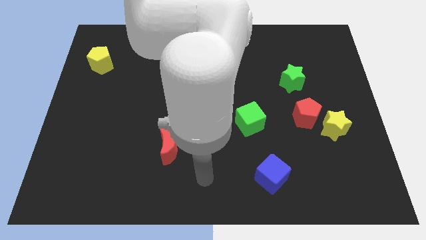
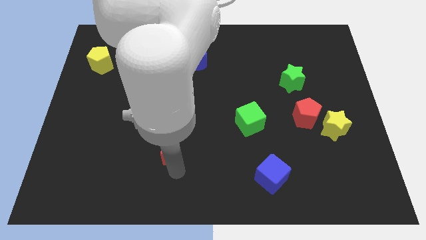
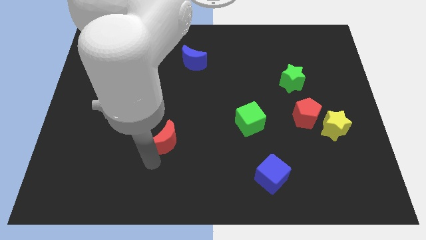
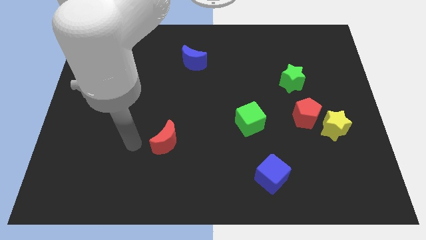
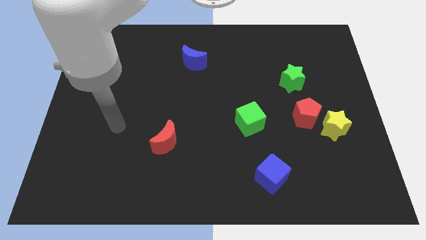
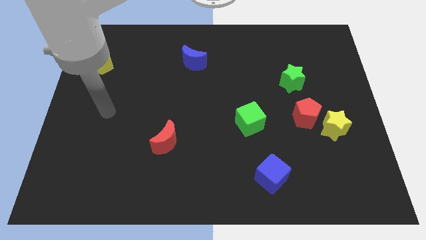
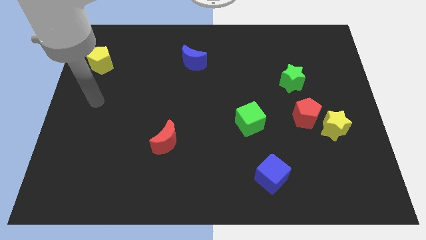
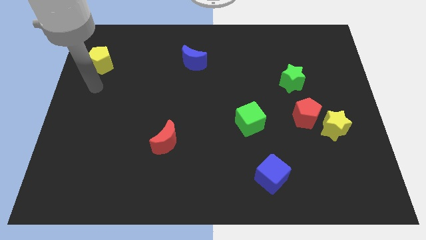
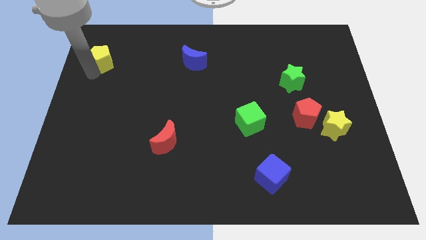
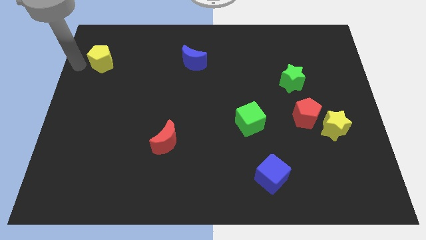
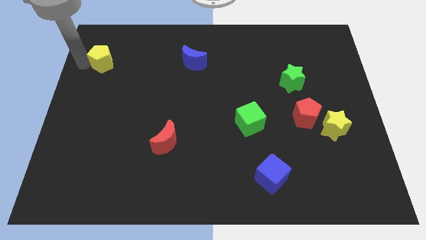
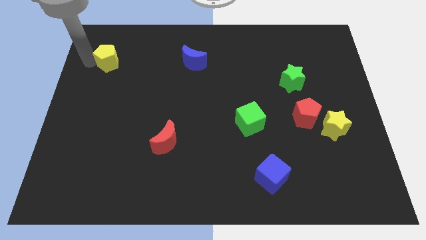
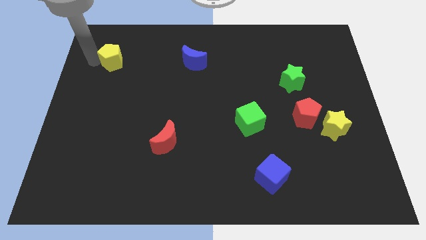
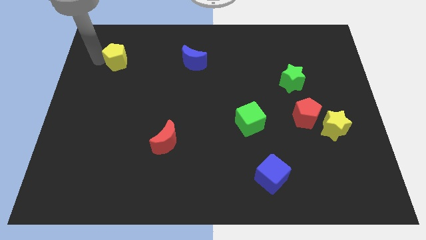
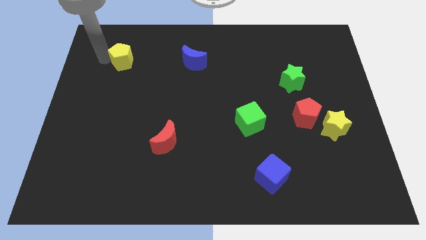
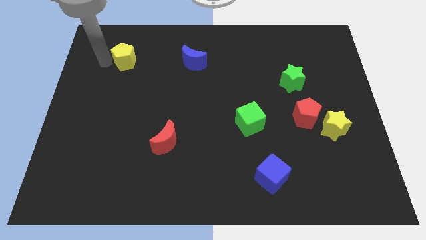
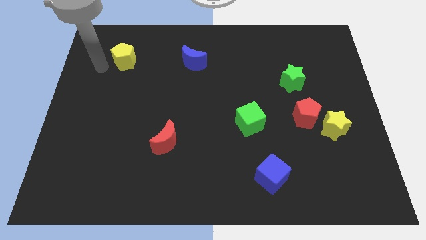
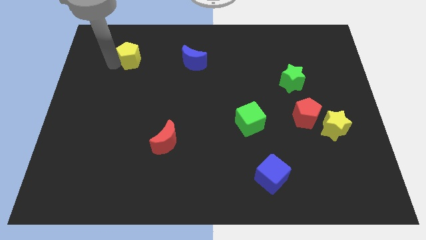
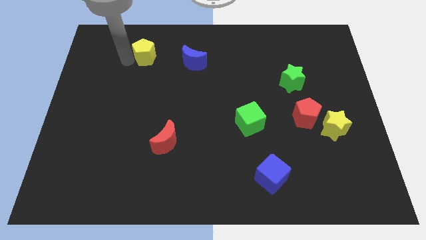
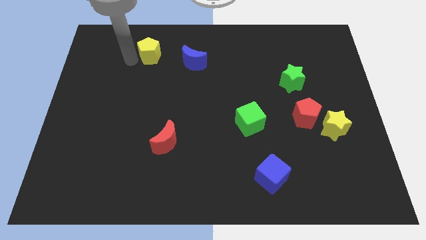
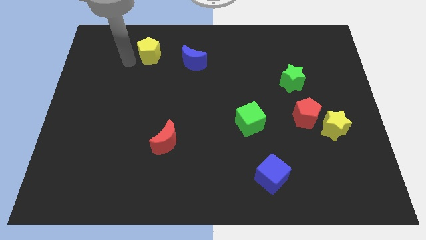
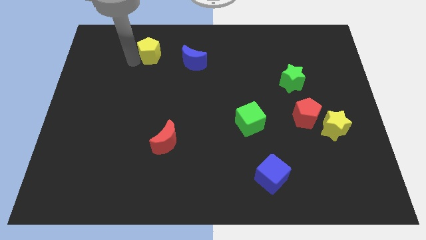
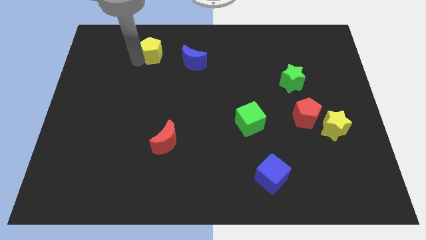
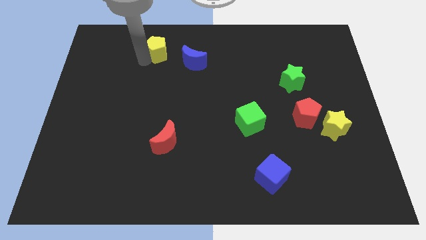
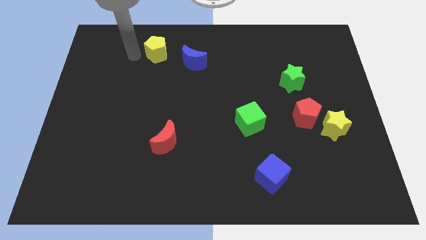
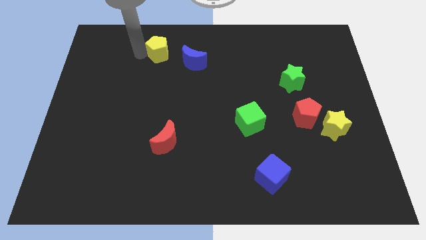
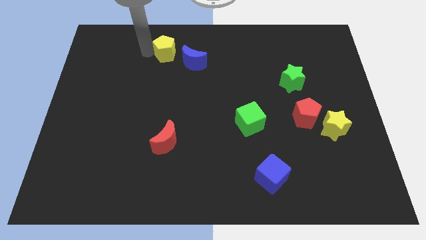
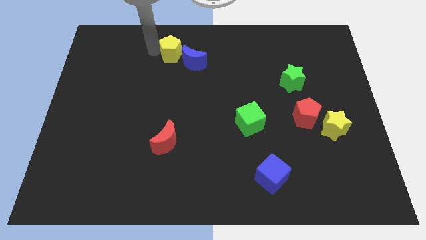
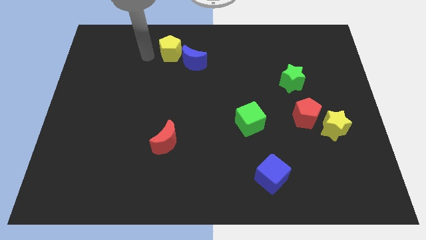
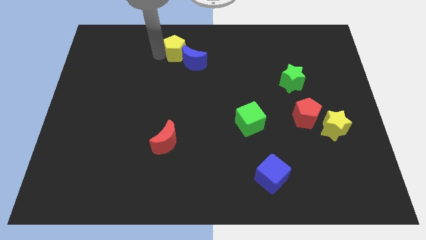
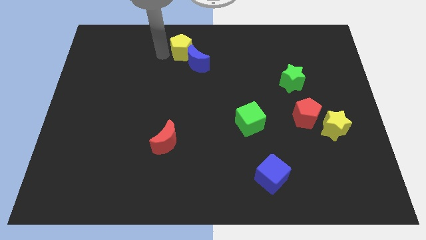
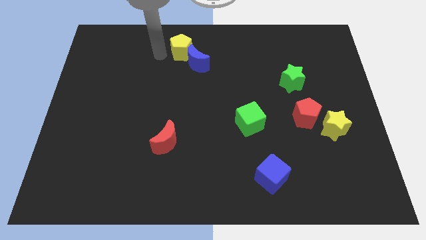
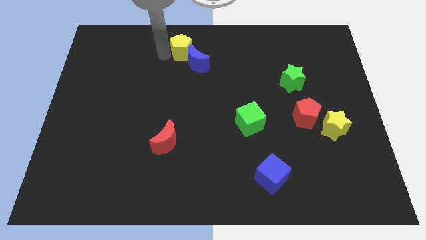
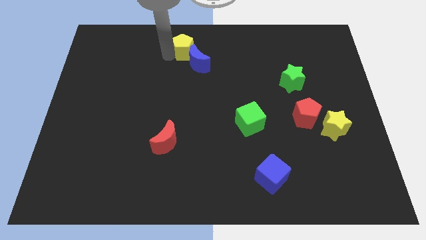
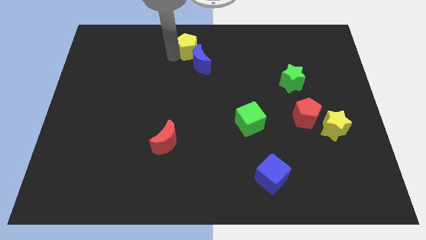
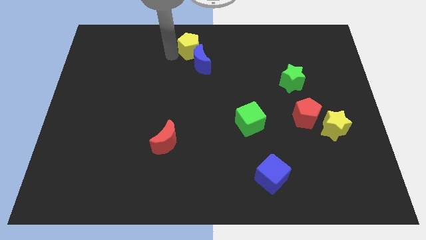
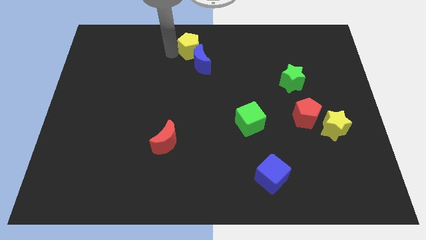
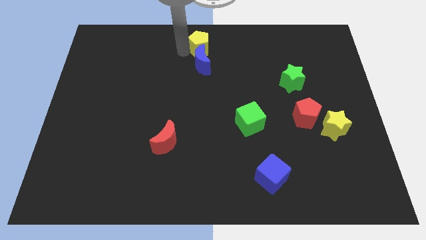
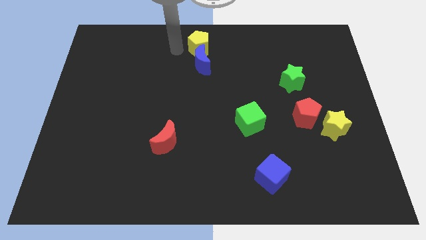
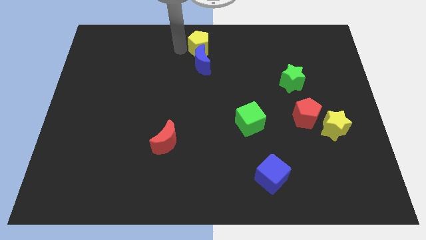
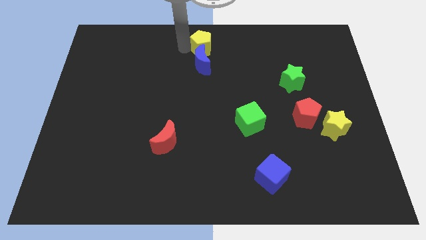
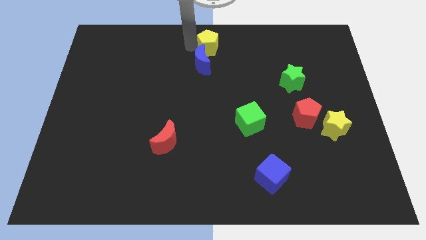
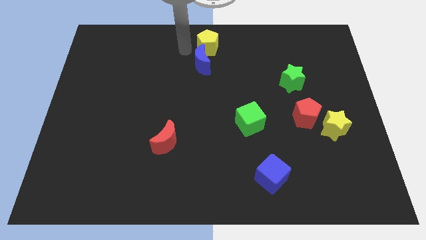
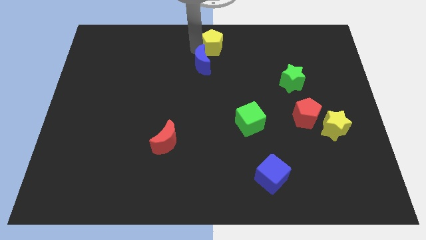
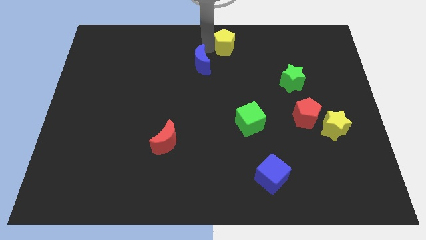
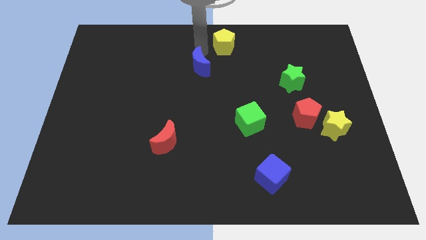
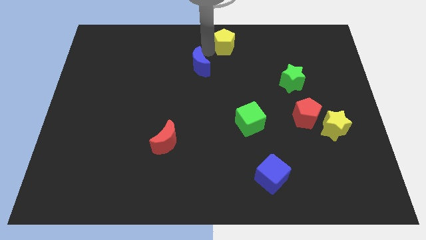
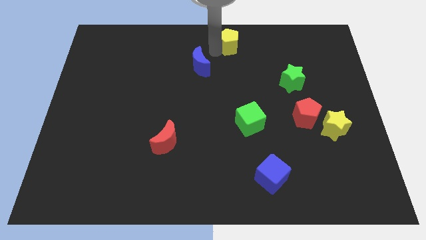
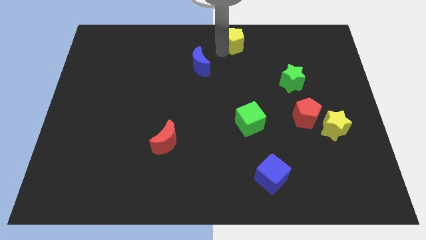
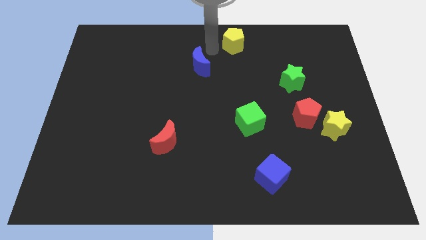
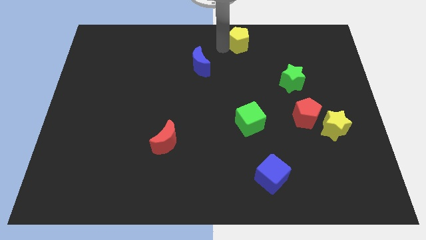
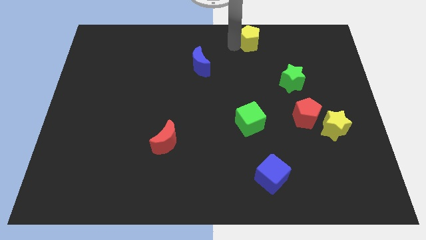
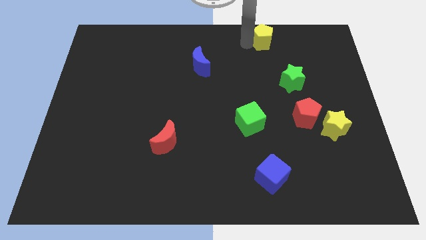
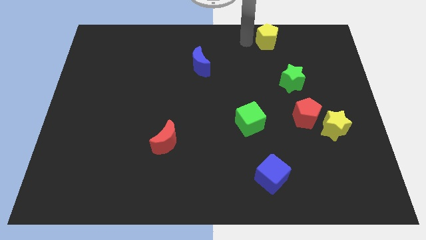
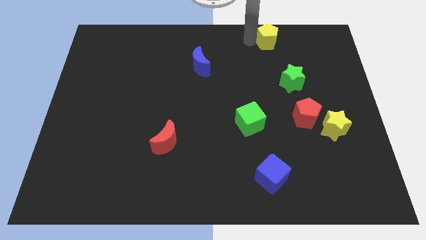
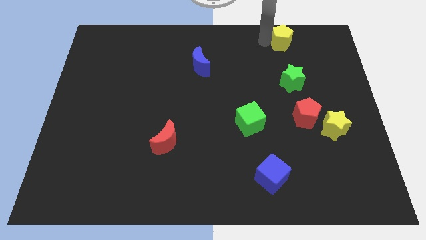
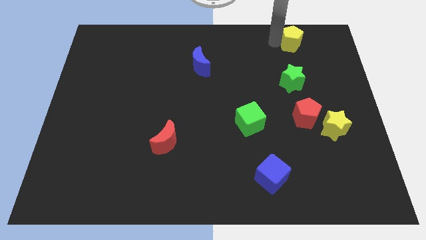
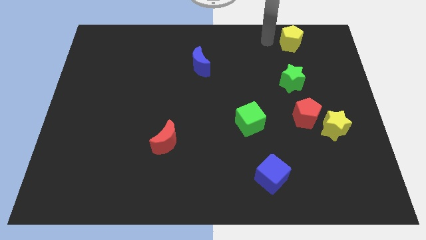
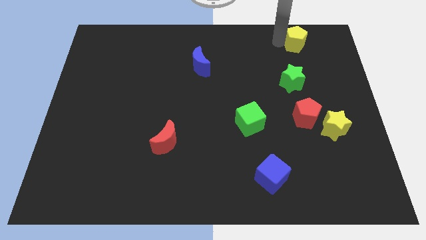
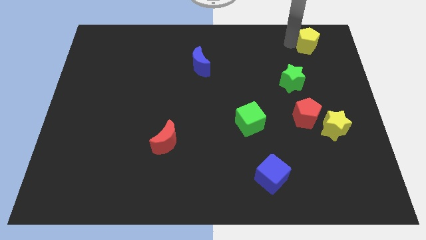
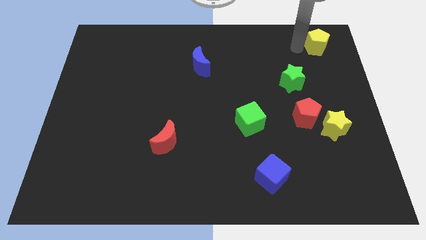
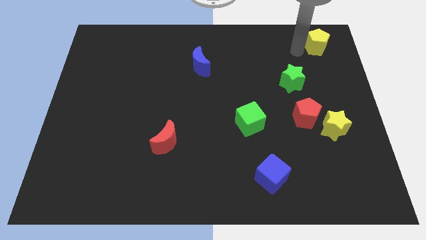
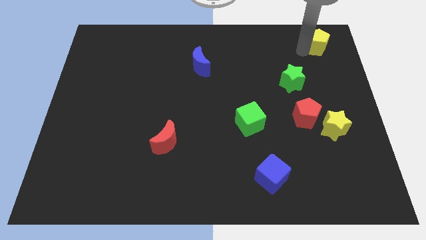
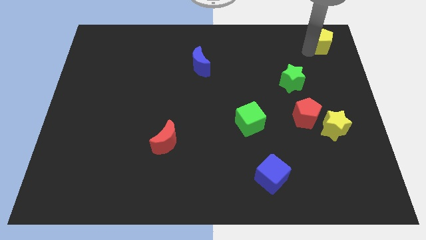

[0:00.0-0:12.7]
put the yellow pentagon to the upper right corner
